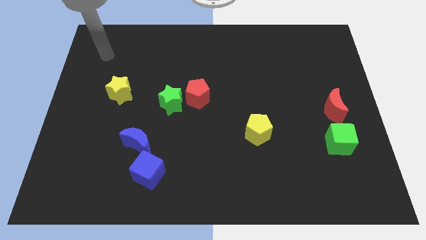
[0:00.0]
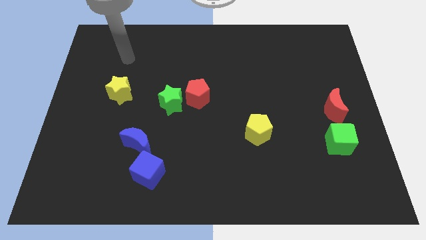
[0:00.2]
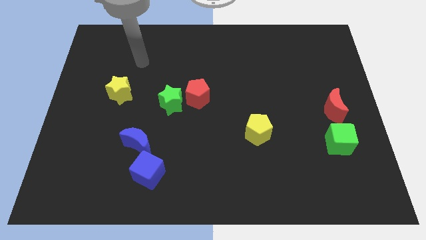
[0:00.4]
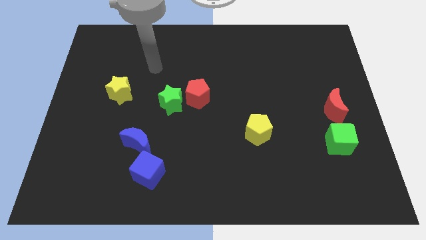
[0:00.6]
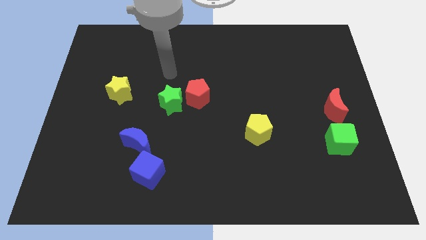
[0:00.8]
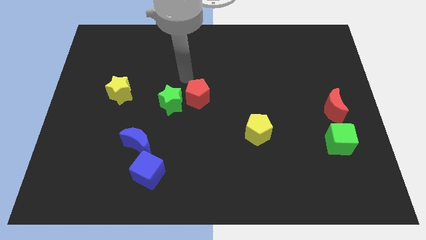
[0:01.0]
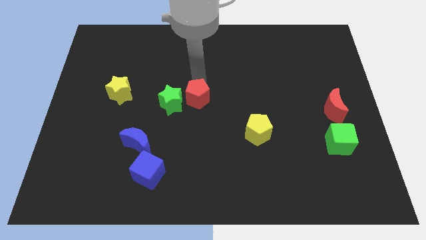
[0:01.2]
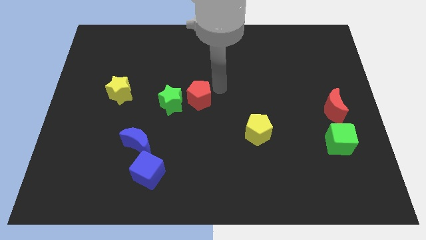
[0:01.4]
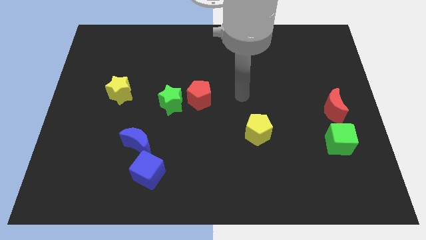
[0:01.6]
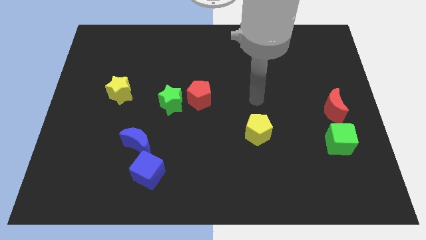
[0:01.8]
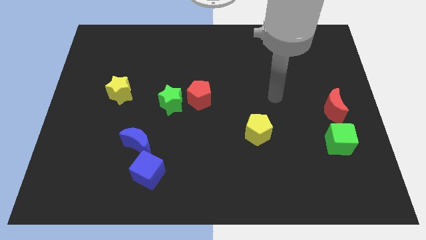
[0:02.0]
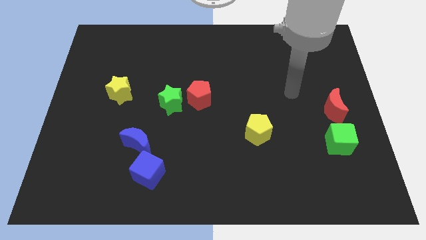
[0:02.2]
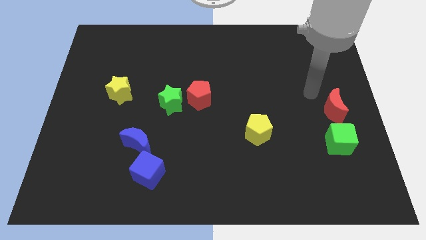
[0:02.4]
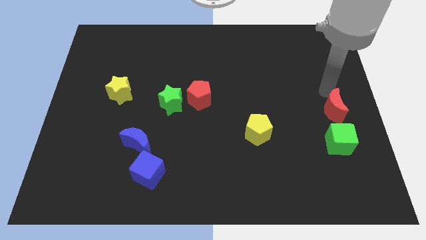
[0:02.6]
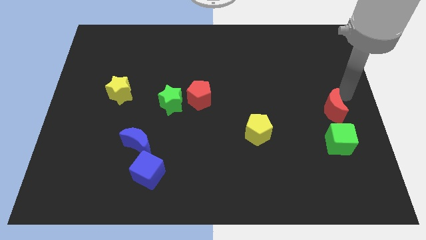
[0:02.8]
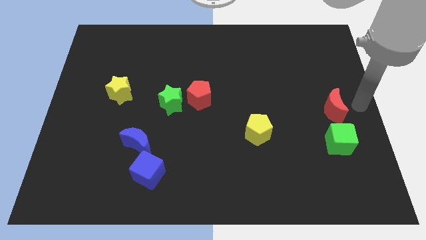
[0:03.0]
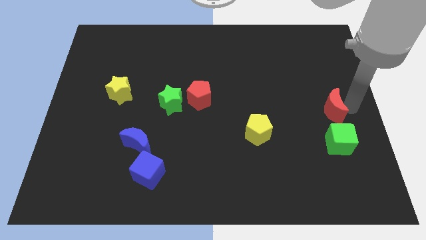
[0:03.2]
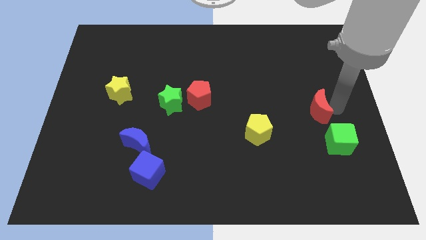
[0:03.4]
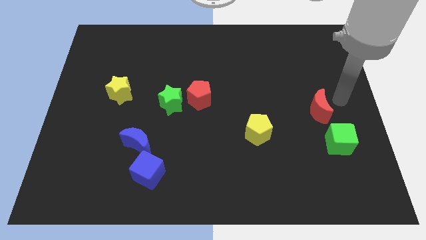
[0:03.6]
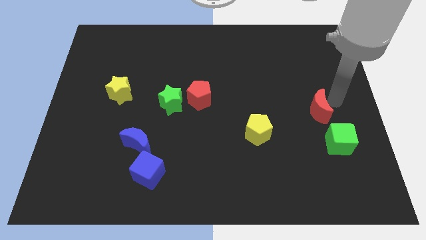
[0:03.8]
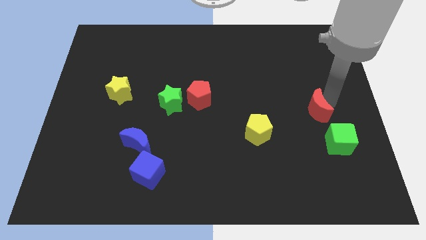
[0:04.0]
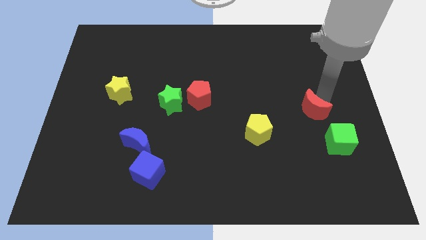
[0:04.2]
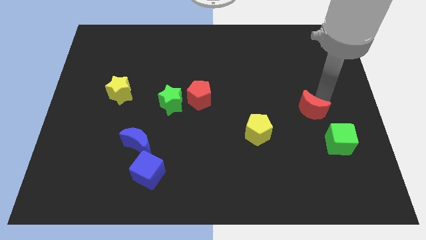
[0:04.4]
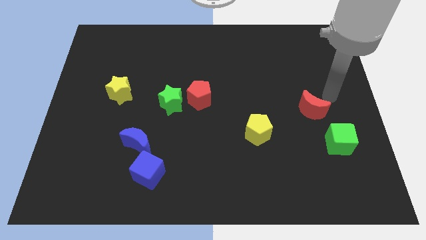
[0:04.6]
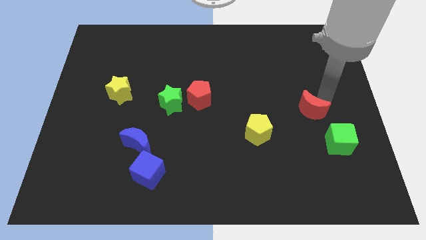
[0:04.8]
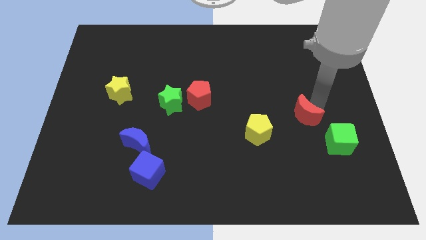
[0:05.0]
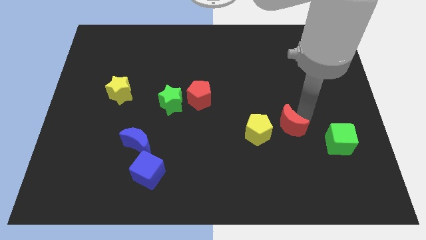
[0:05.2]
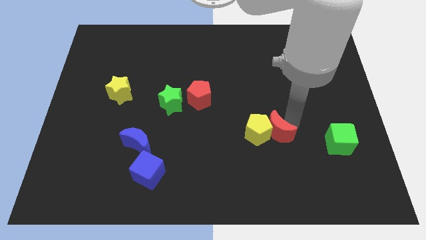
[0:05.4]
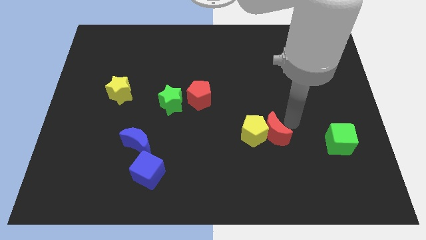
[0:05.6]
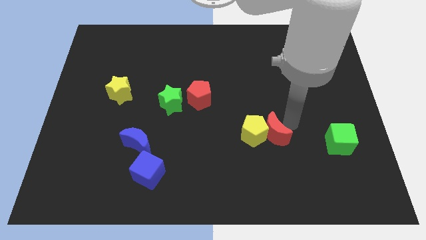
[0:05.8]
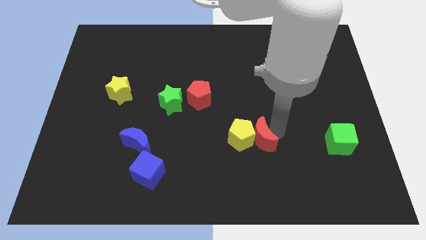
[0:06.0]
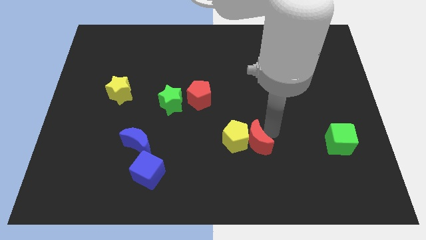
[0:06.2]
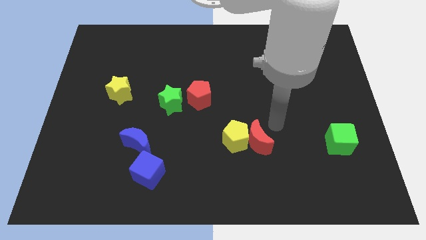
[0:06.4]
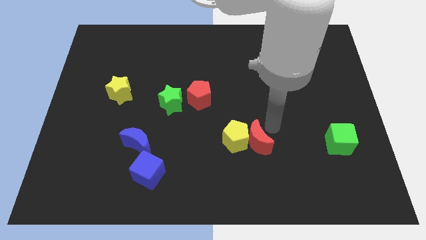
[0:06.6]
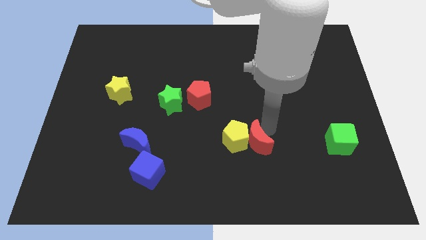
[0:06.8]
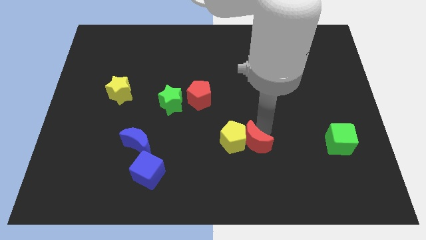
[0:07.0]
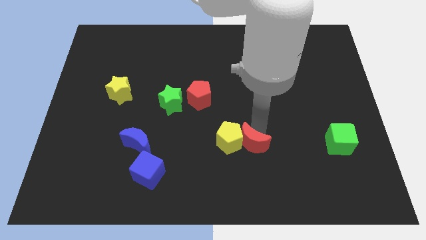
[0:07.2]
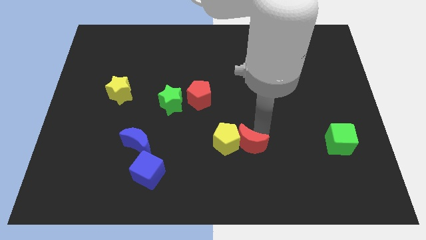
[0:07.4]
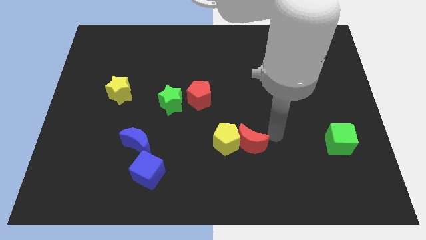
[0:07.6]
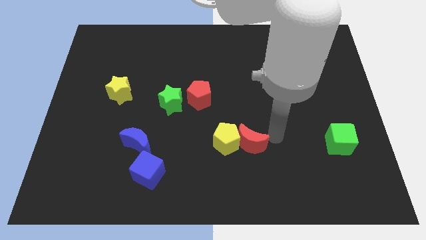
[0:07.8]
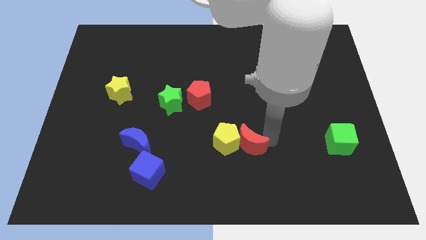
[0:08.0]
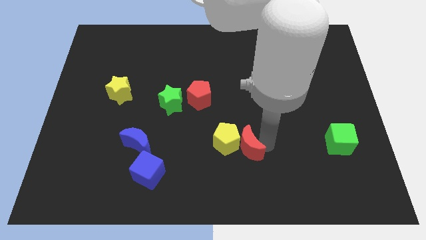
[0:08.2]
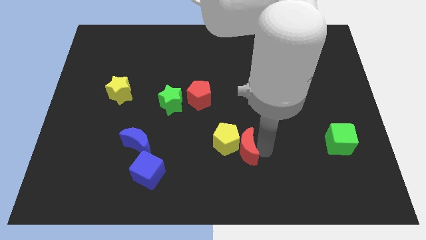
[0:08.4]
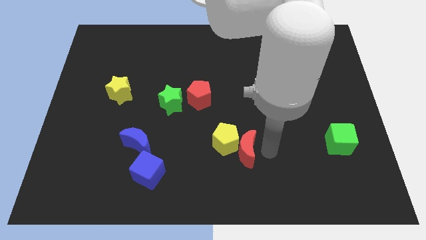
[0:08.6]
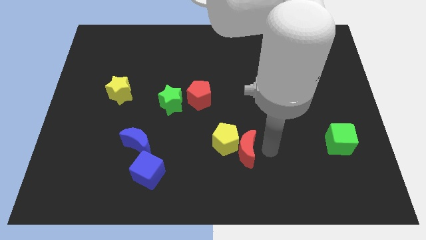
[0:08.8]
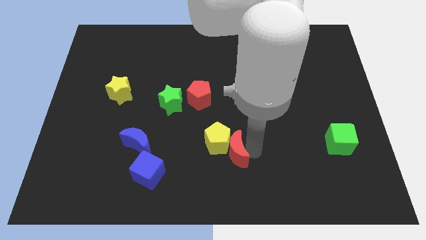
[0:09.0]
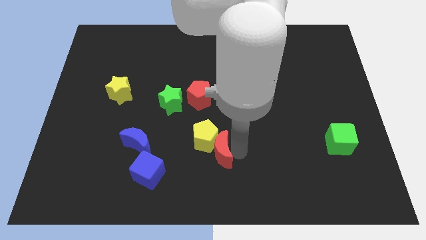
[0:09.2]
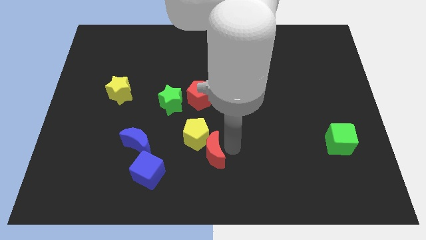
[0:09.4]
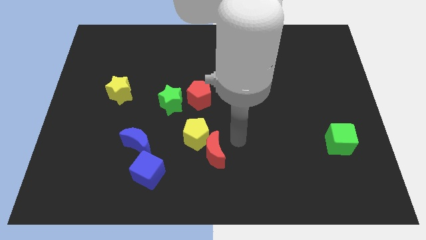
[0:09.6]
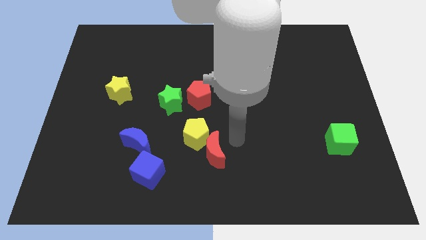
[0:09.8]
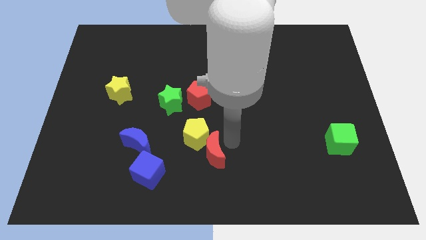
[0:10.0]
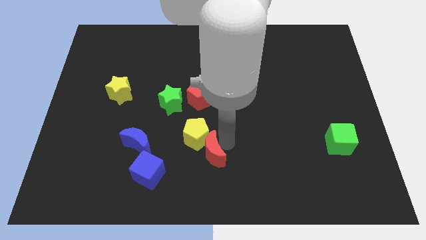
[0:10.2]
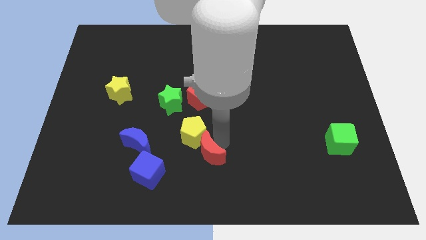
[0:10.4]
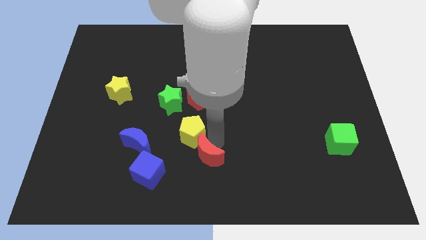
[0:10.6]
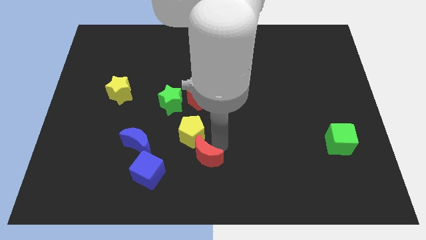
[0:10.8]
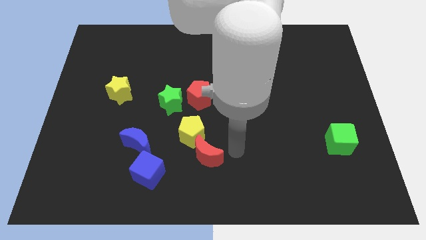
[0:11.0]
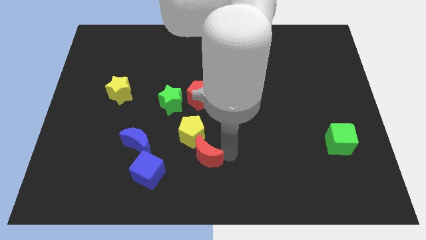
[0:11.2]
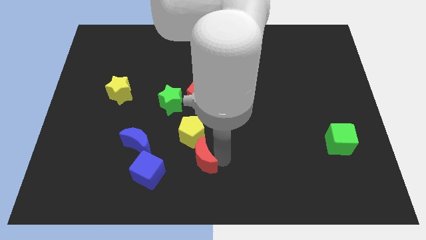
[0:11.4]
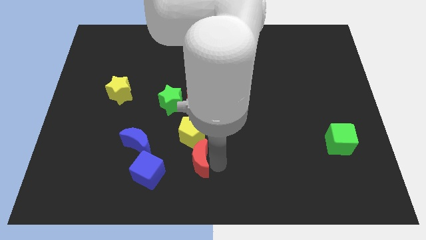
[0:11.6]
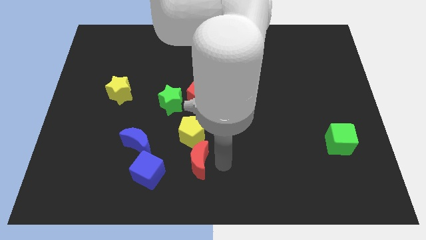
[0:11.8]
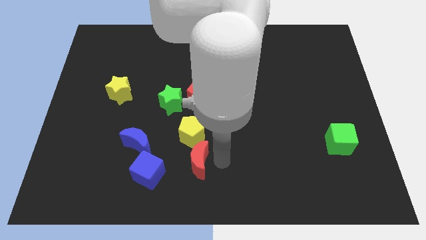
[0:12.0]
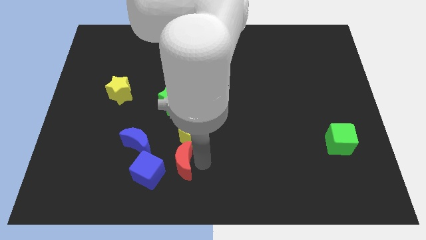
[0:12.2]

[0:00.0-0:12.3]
slide the red moon to the bottom right of the blue moon
